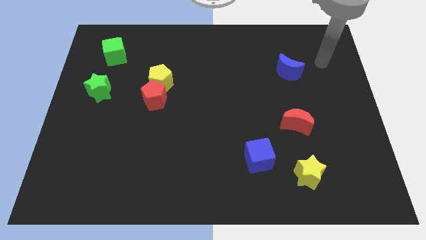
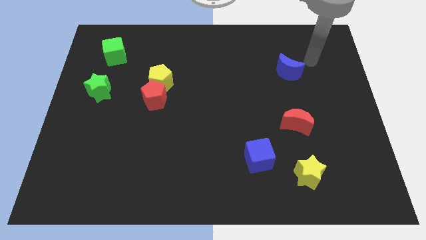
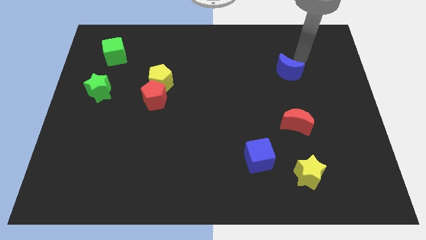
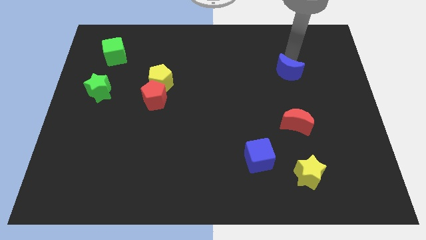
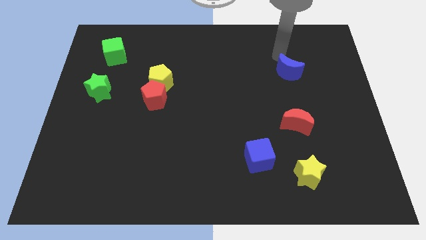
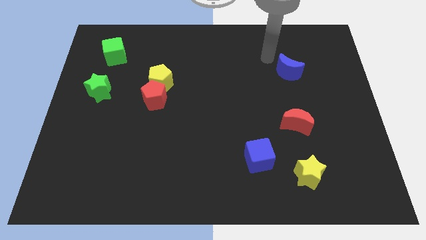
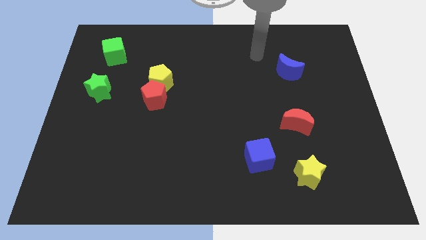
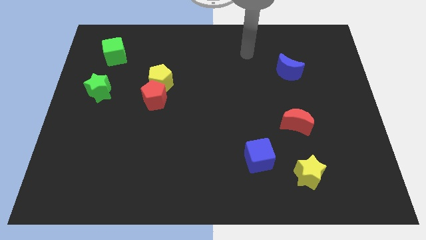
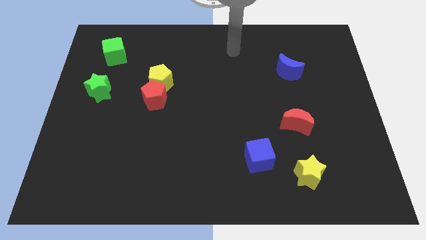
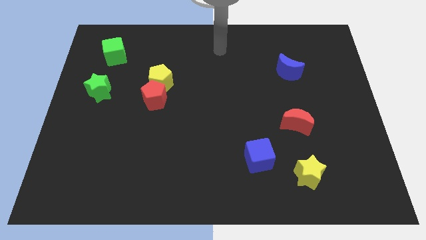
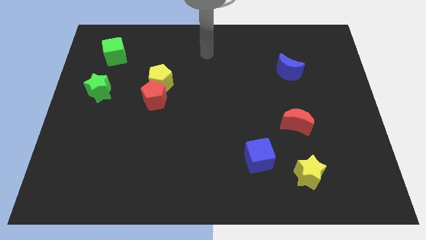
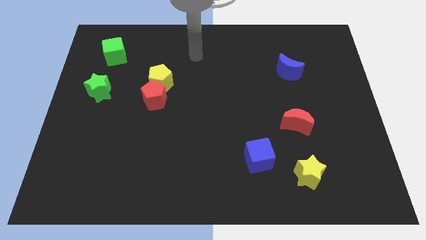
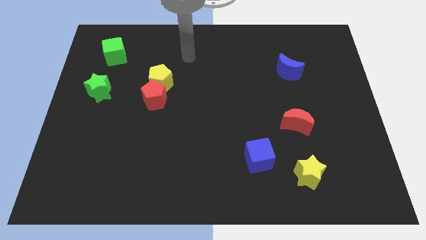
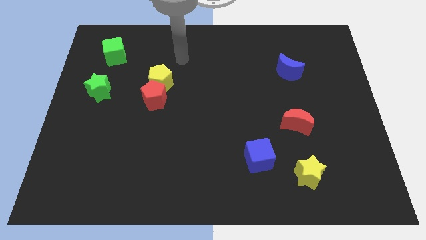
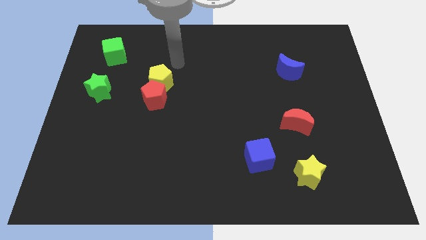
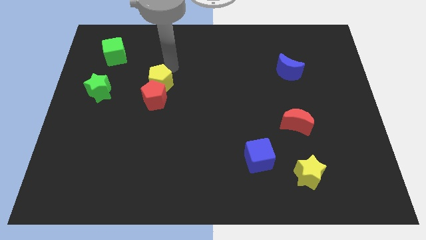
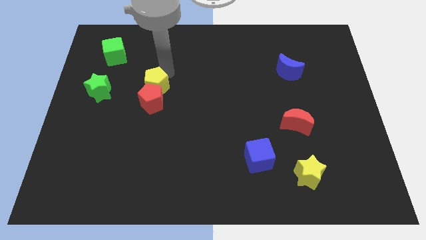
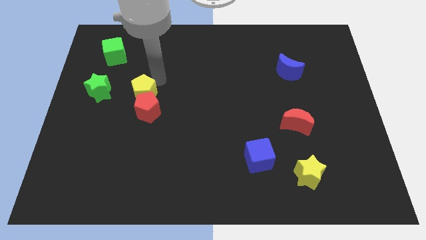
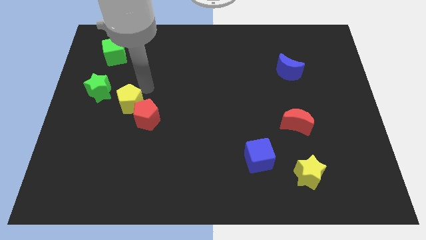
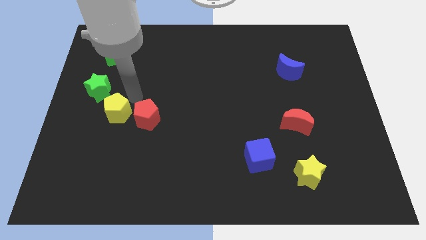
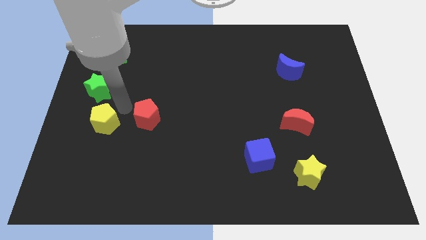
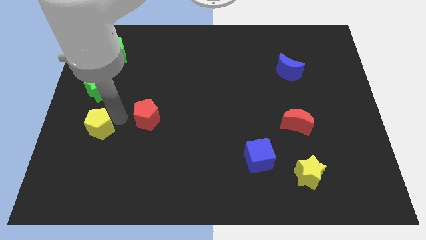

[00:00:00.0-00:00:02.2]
move the red pentagon away from the yellow pentagon

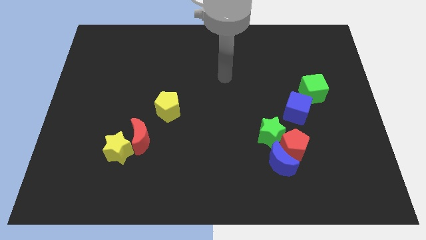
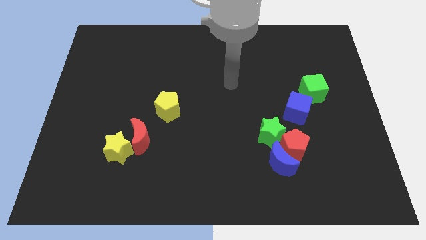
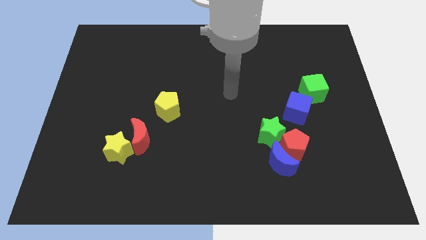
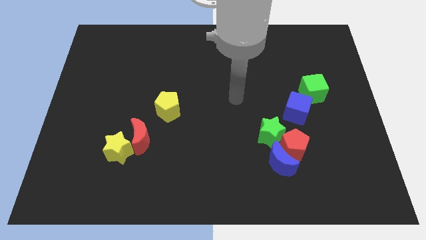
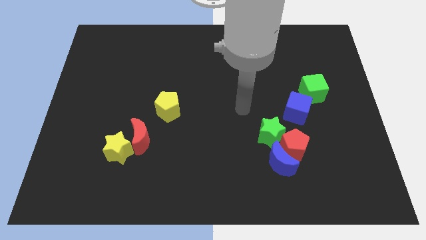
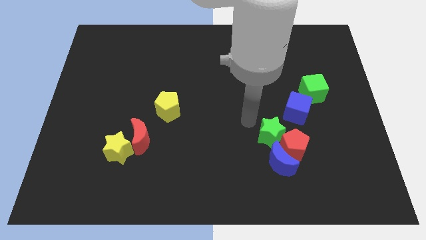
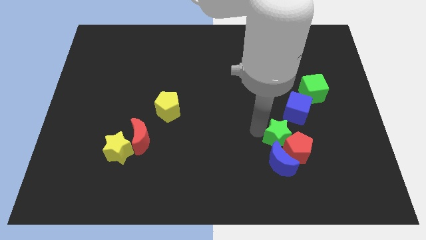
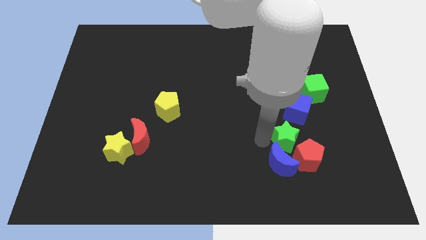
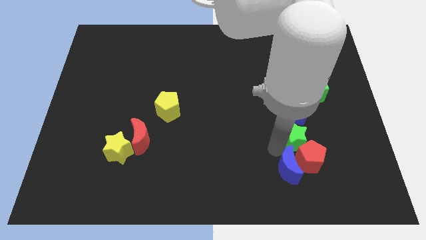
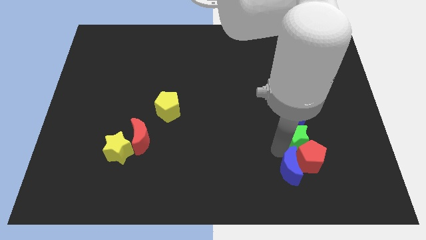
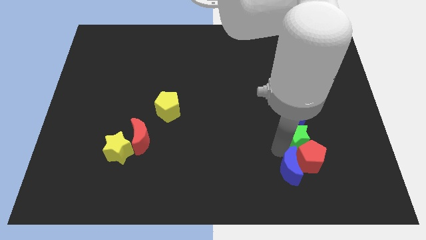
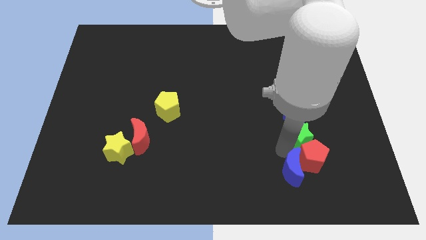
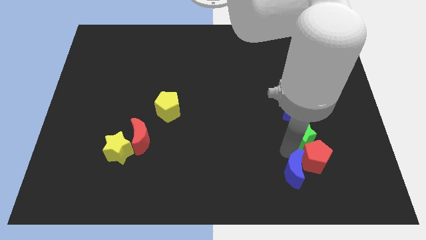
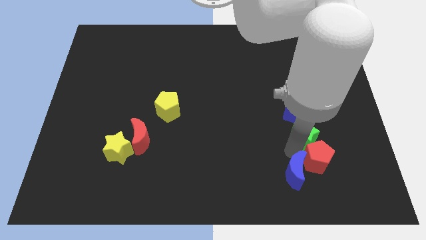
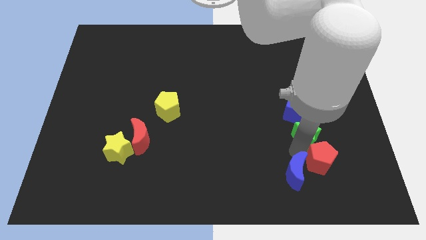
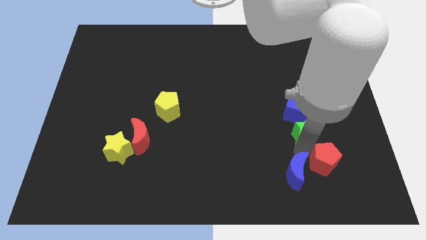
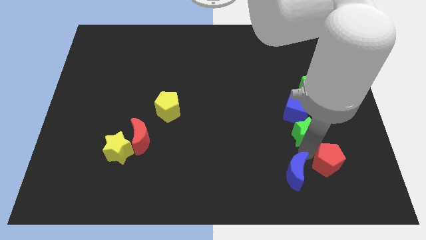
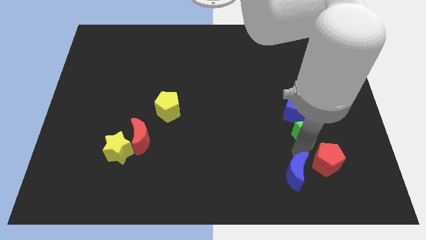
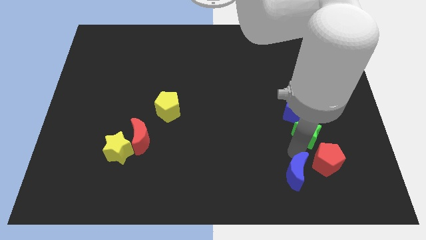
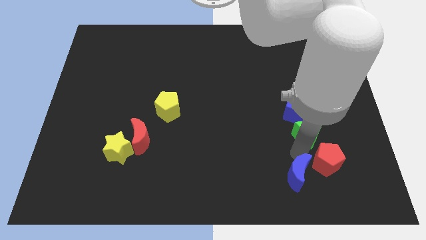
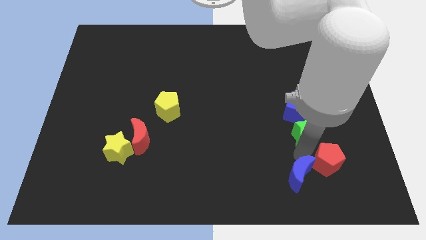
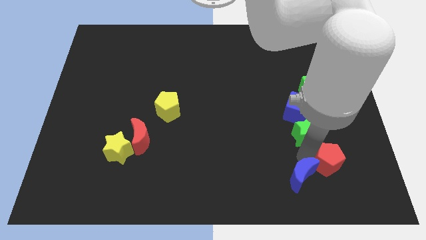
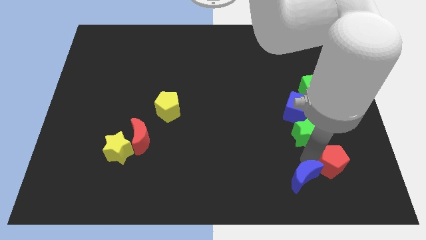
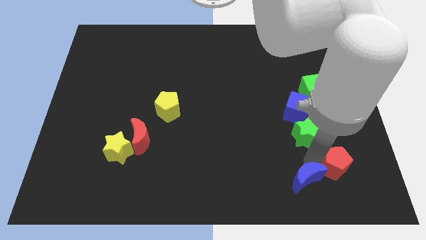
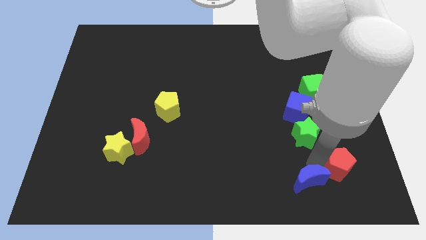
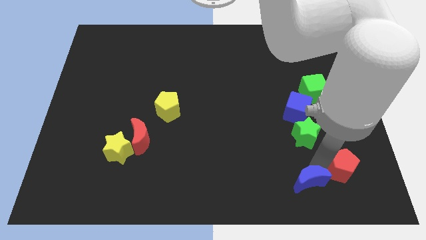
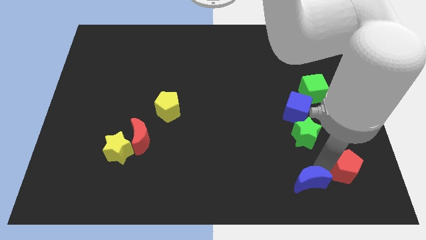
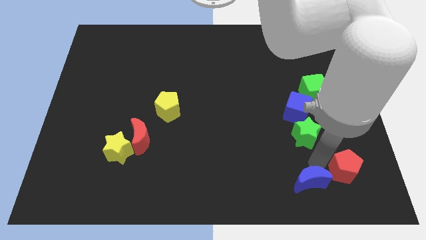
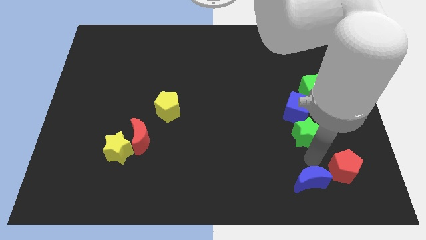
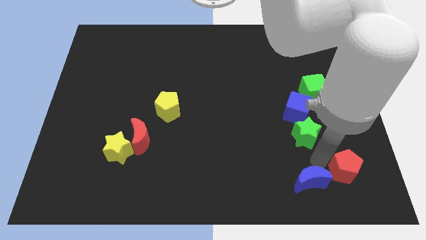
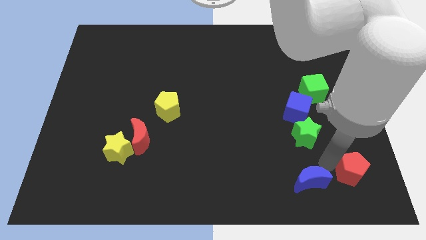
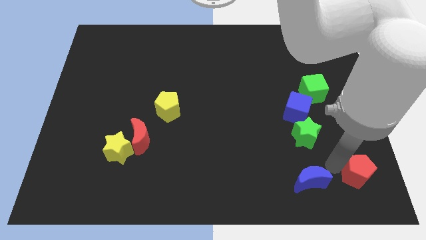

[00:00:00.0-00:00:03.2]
move the red pentagon away from the blue moon and green star

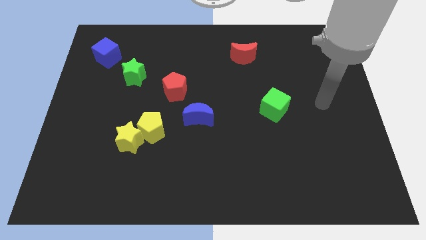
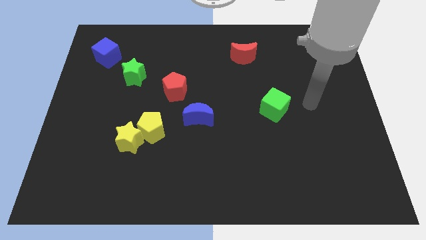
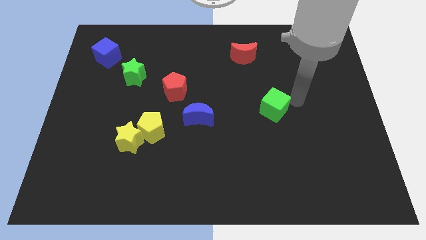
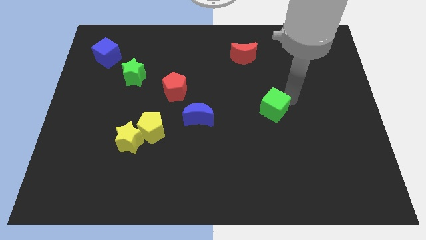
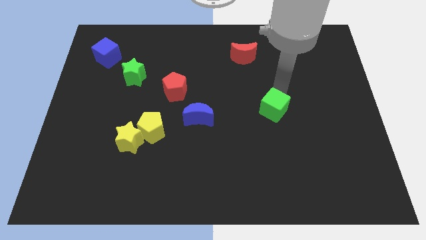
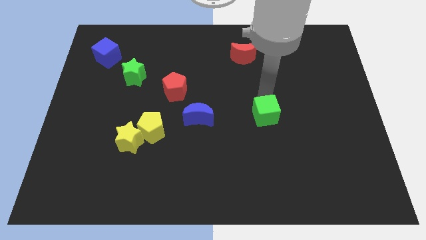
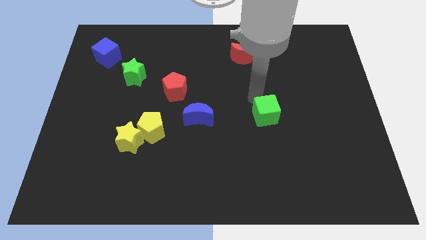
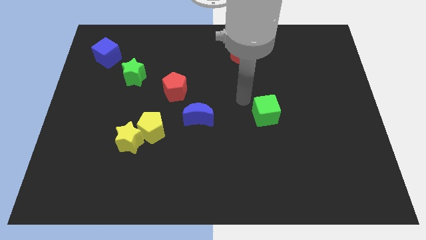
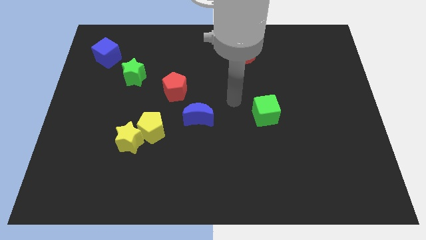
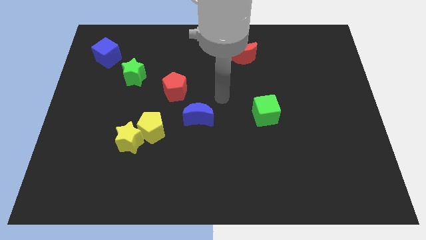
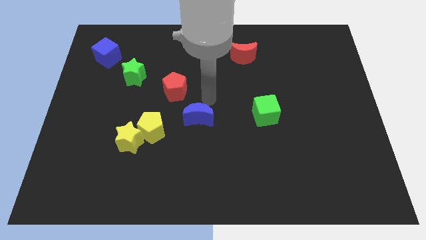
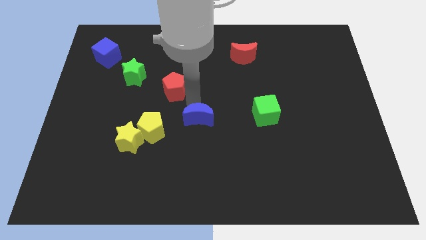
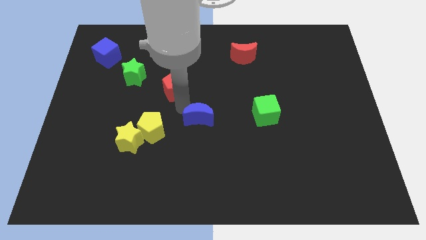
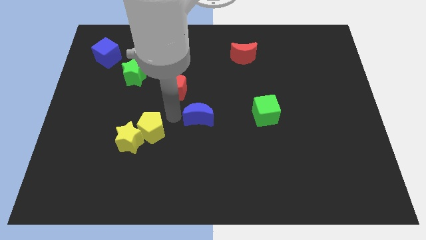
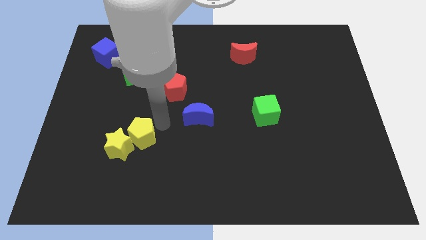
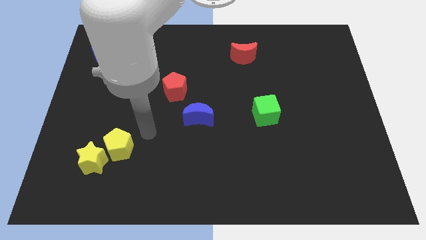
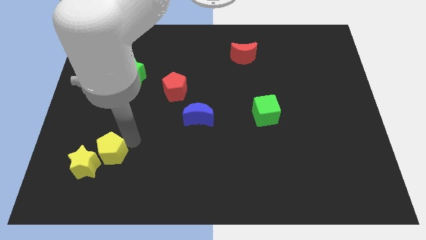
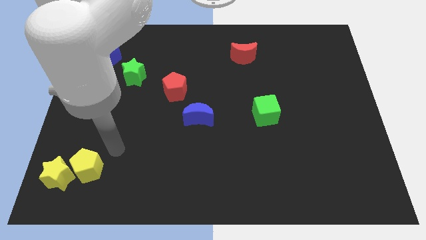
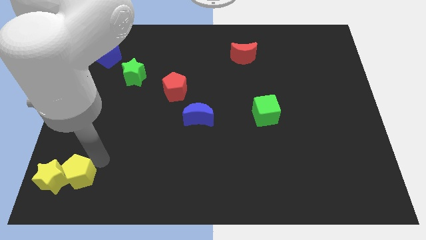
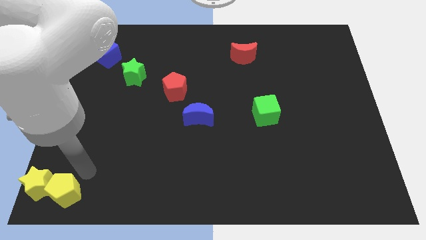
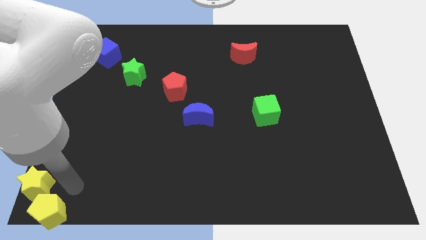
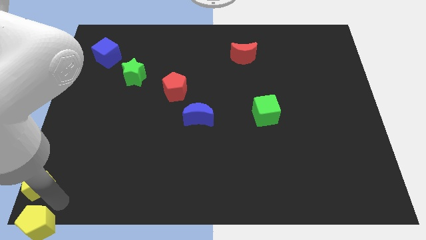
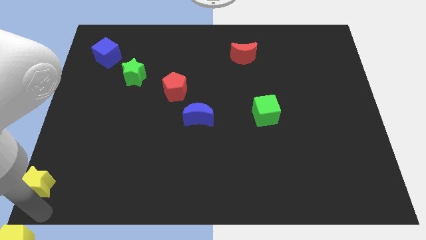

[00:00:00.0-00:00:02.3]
separate the yellow star from the yellow pentagon

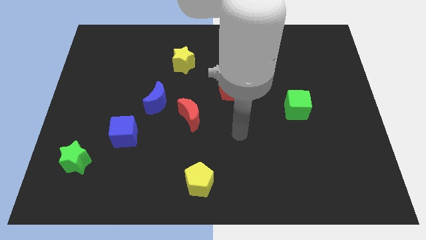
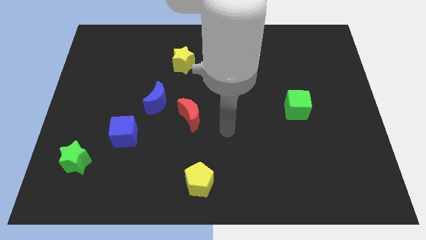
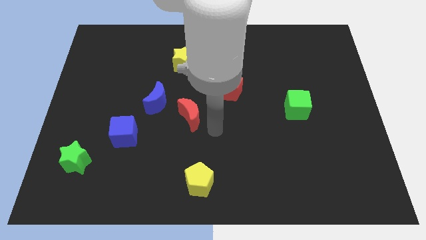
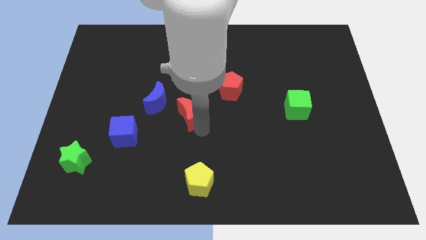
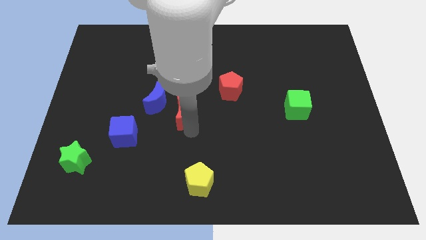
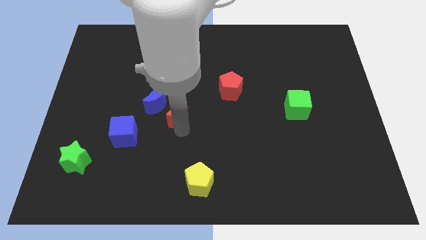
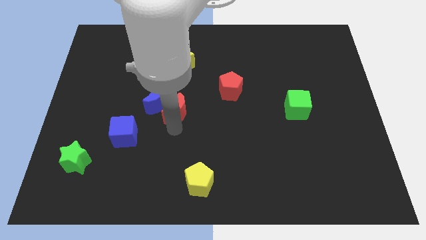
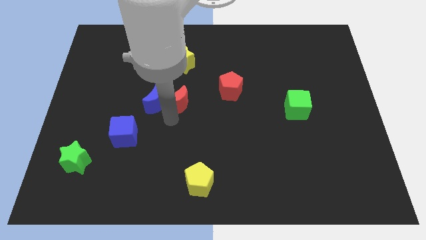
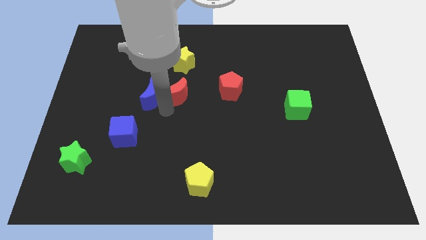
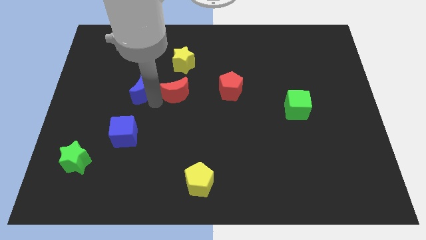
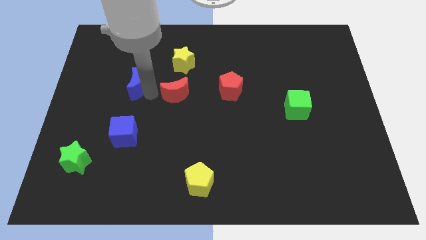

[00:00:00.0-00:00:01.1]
separate the red moon from the blue moon

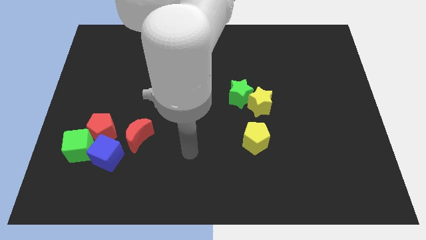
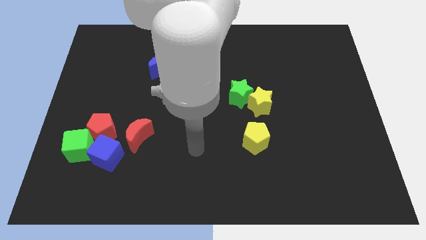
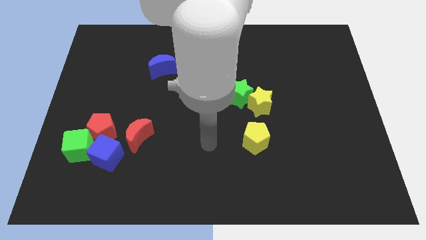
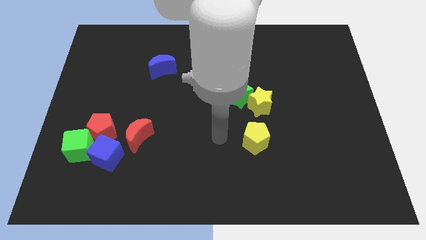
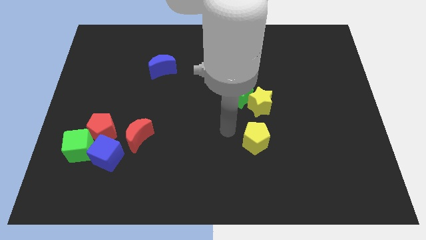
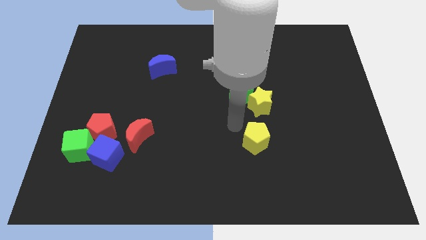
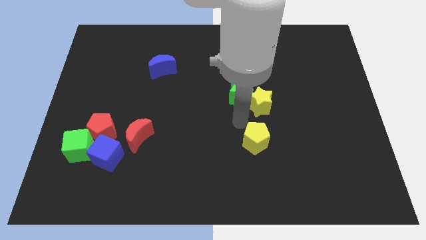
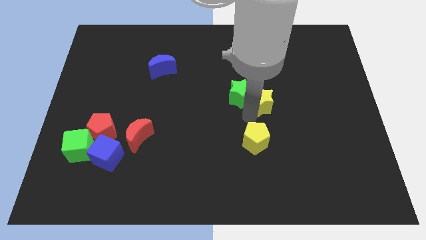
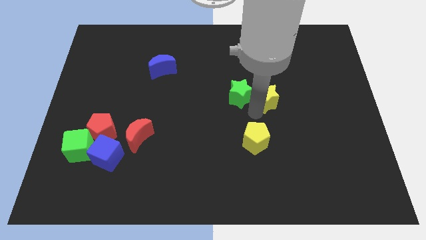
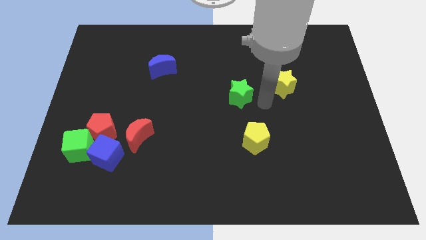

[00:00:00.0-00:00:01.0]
pull the green star apart from the yellow star
